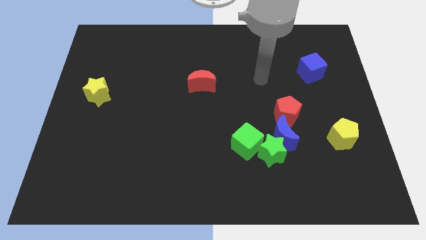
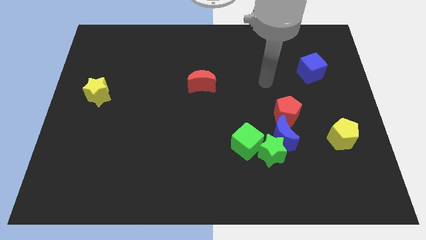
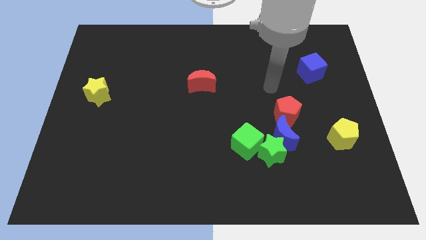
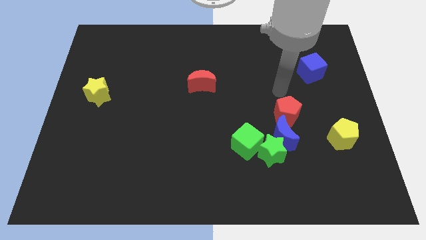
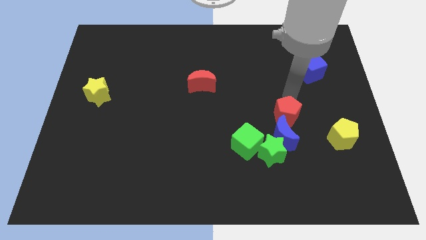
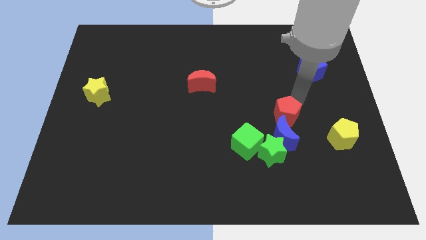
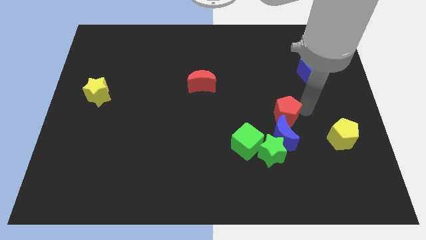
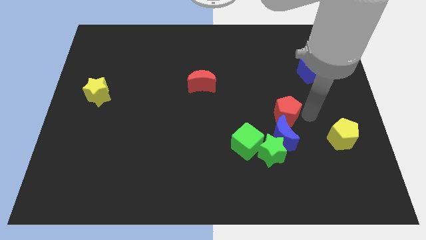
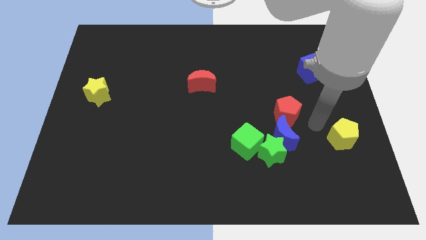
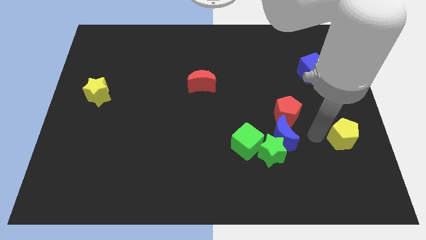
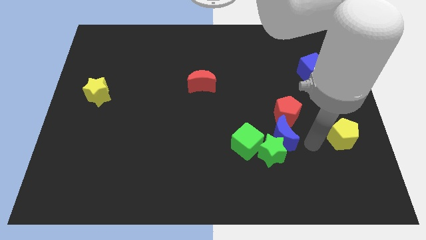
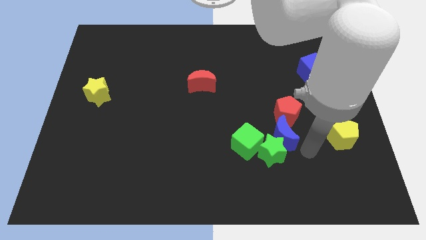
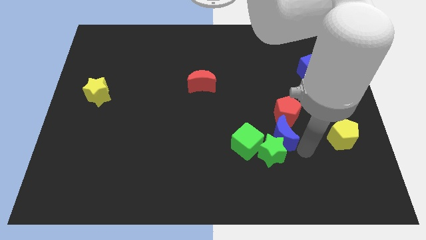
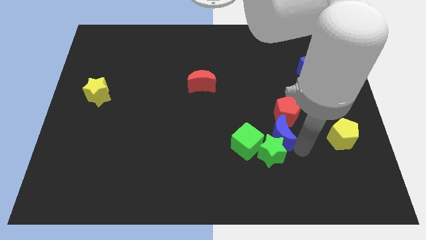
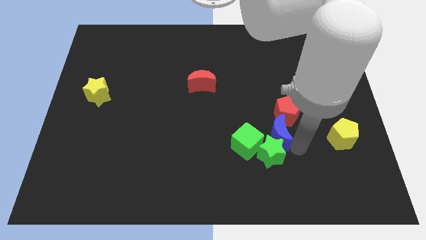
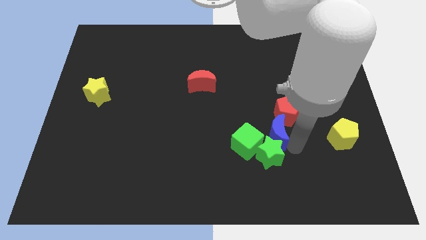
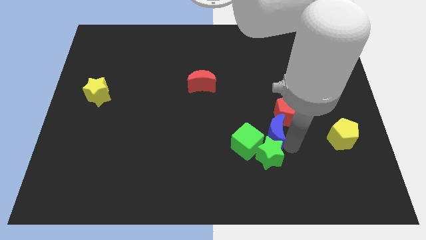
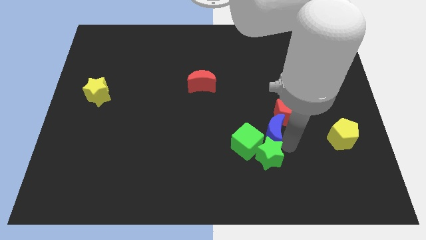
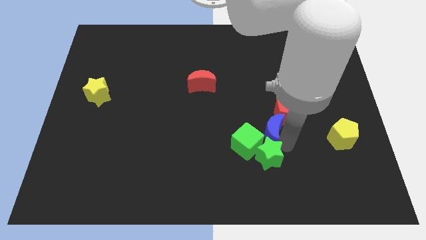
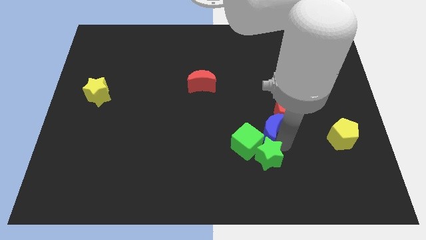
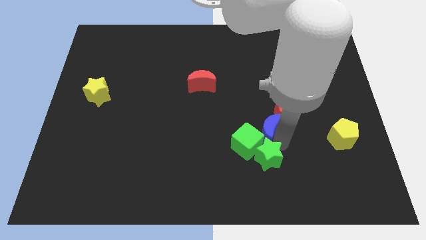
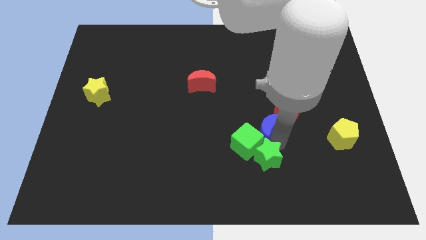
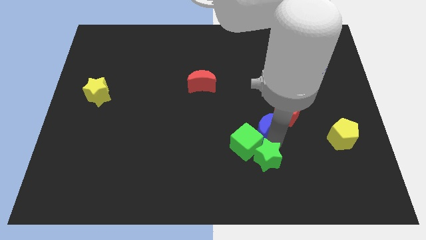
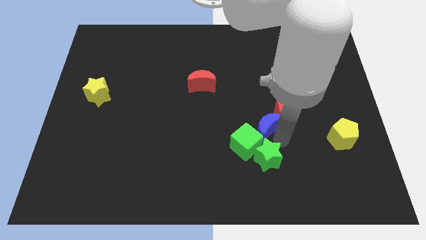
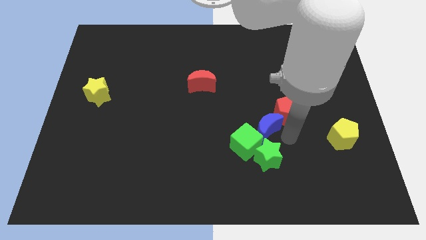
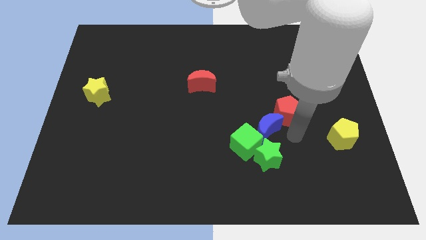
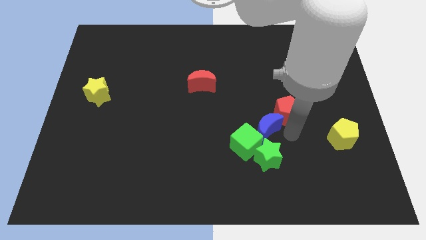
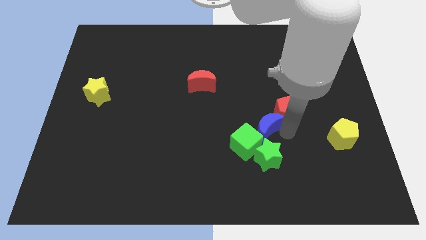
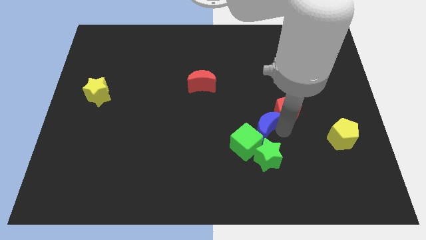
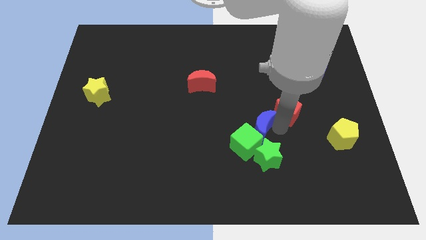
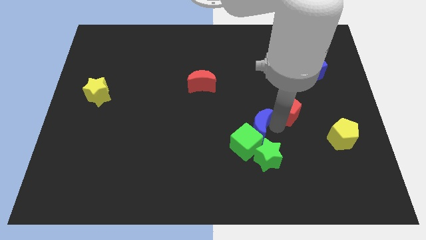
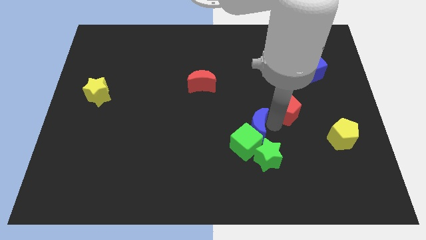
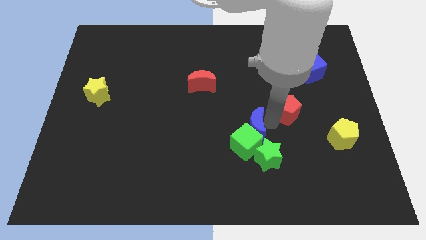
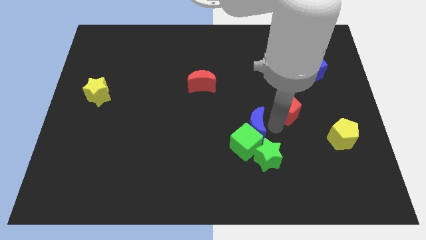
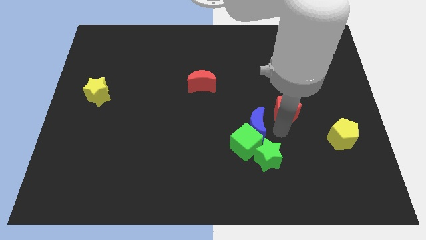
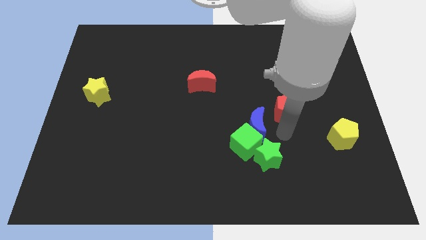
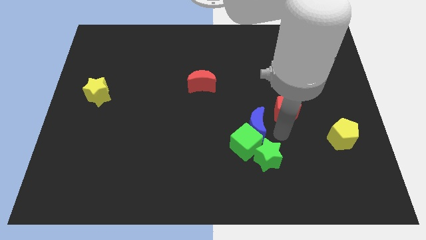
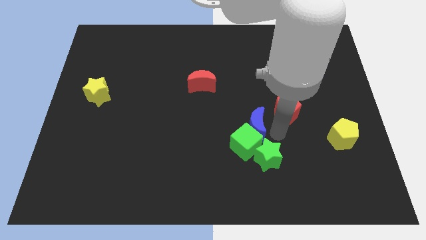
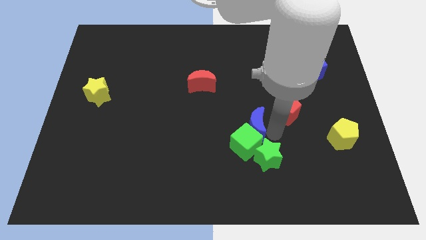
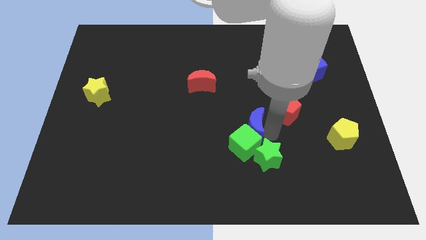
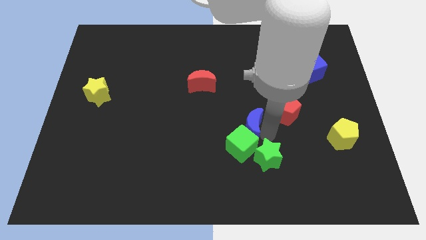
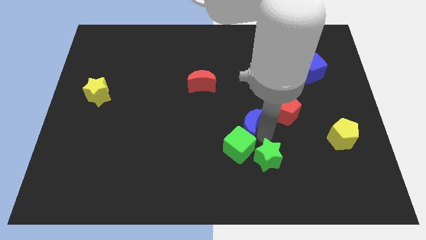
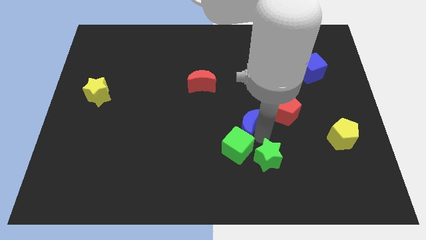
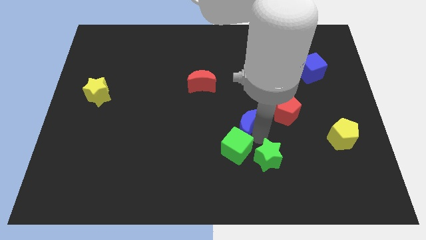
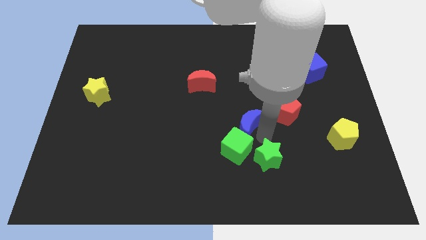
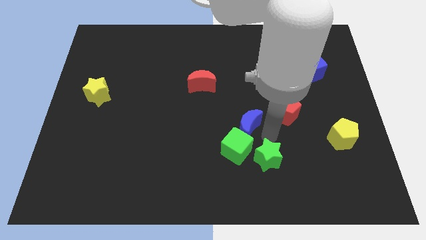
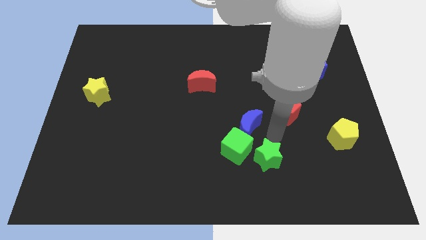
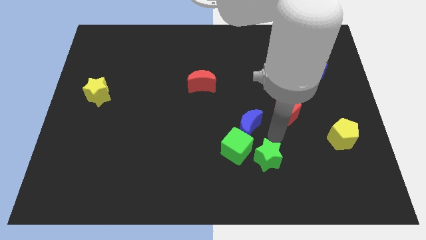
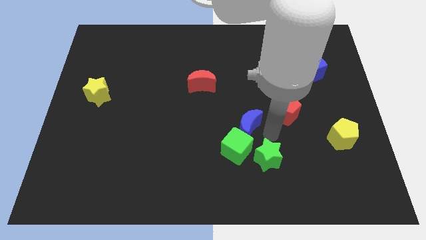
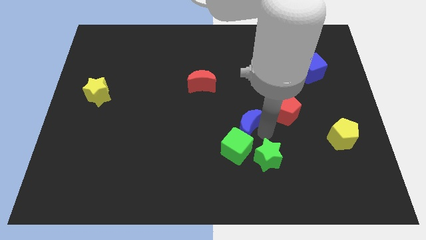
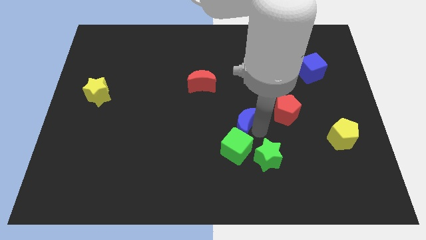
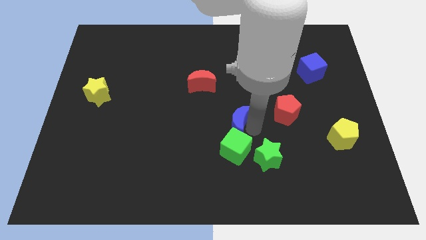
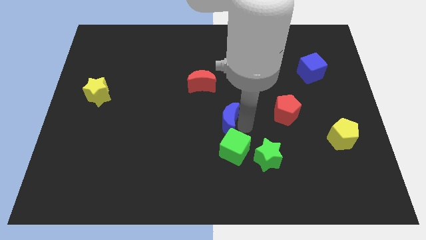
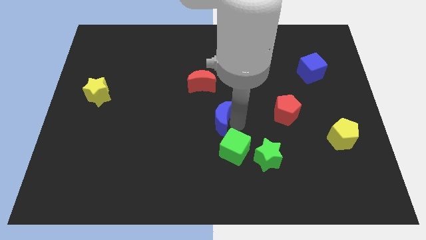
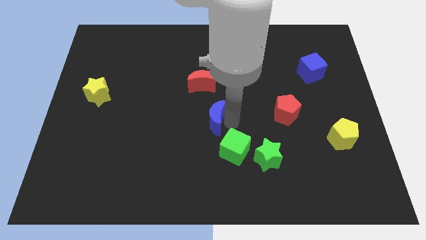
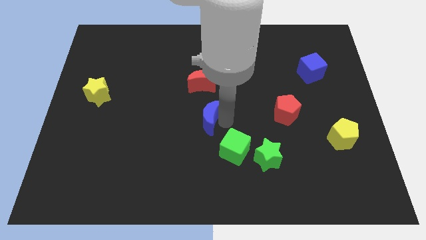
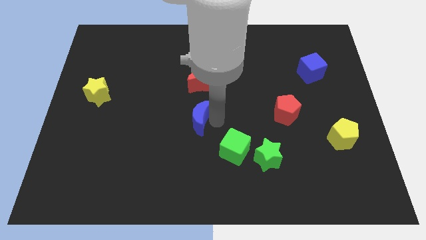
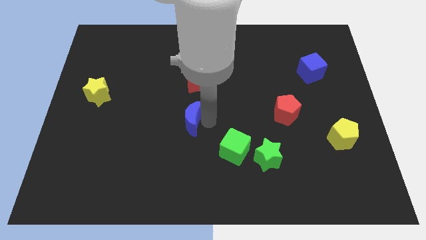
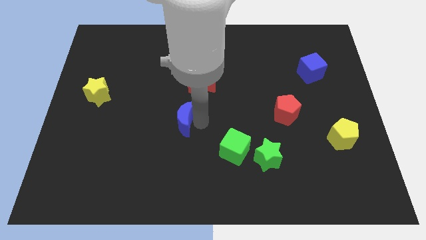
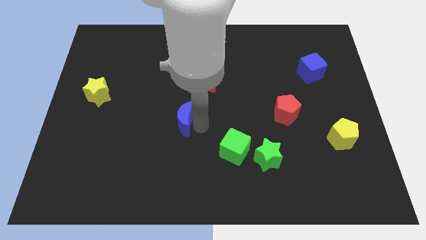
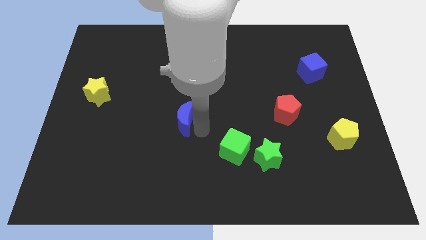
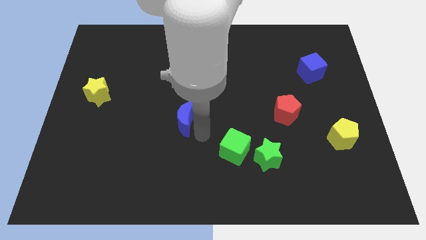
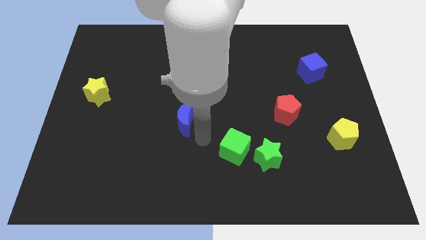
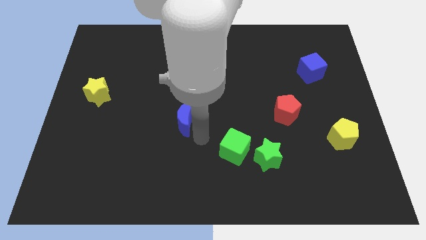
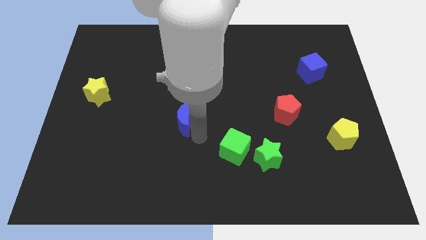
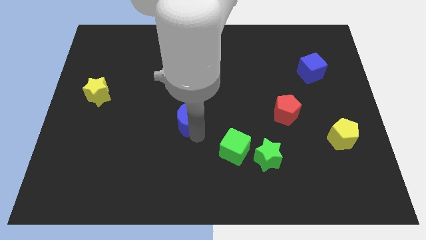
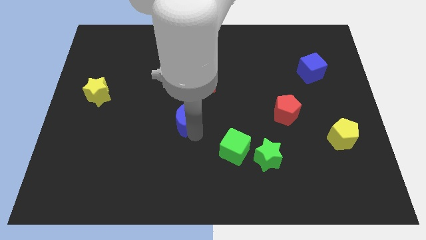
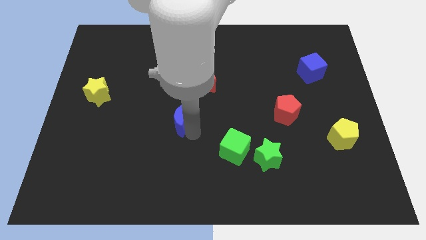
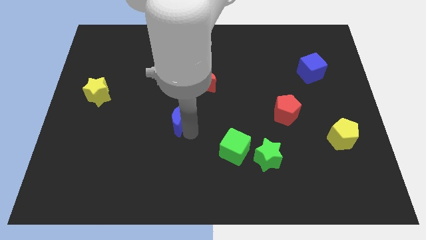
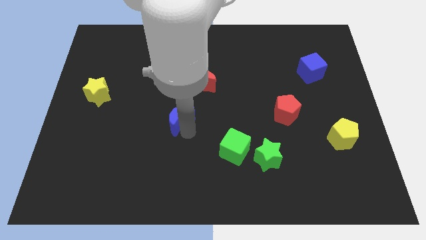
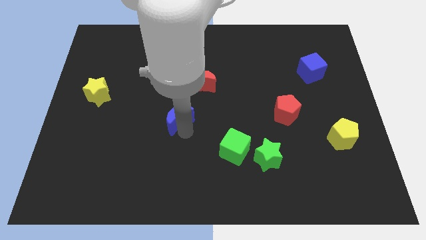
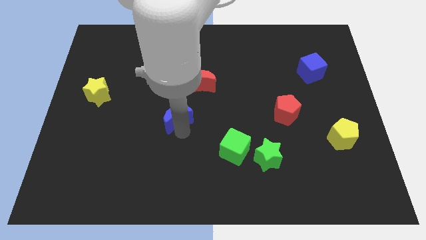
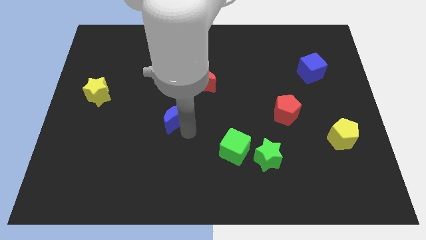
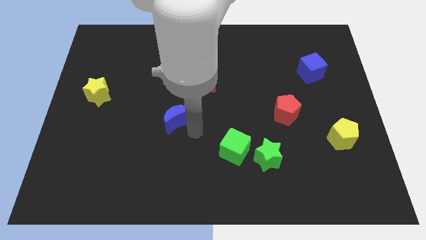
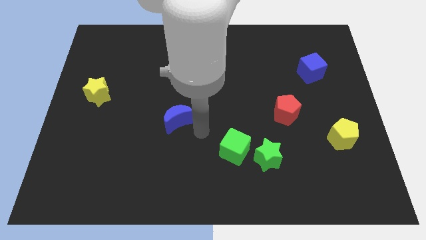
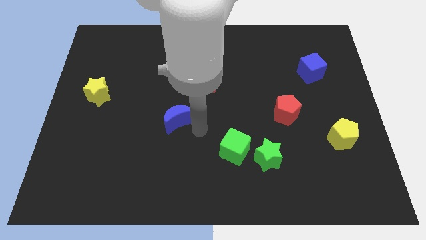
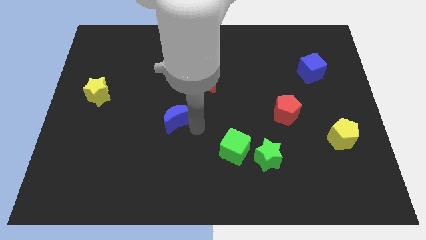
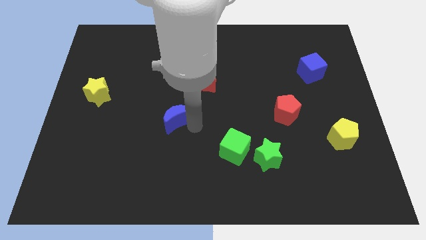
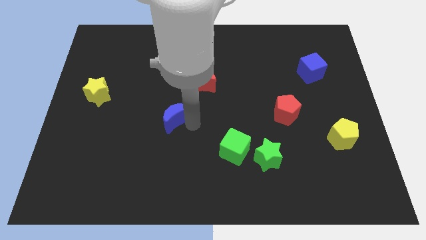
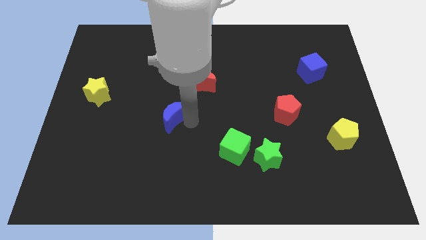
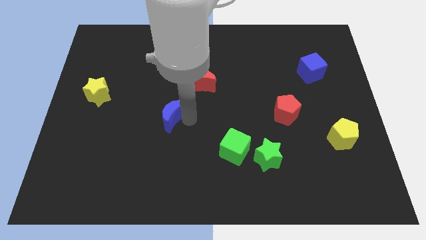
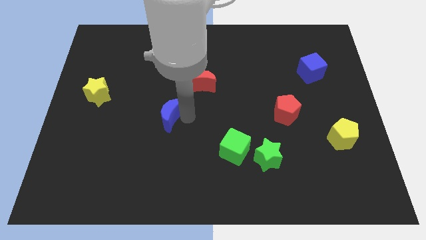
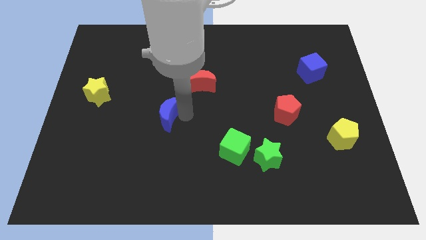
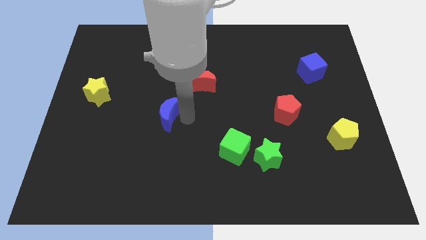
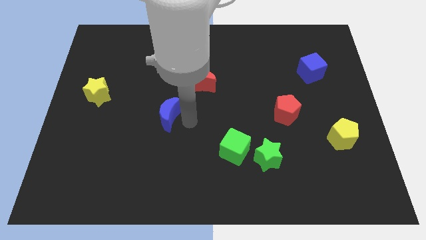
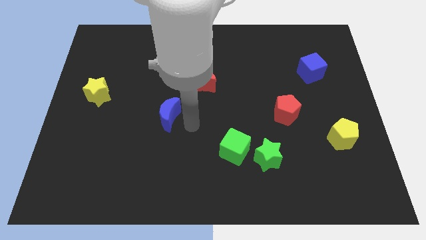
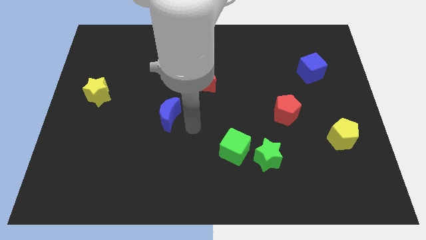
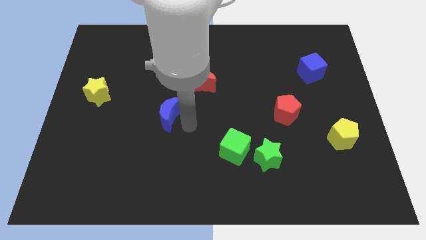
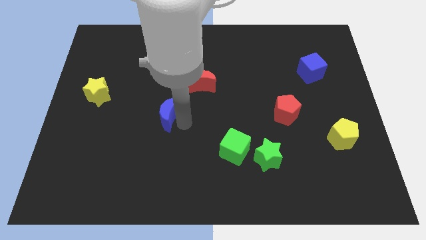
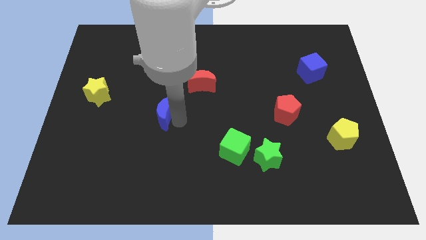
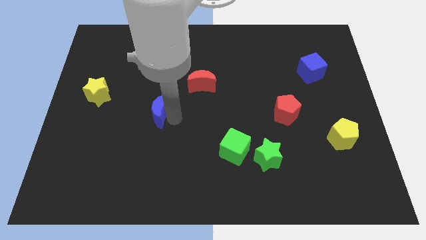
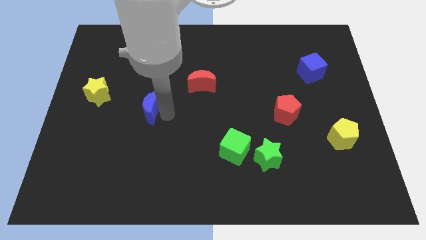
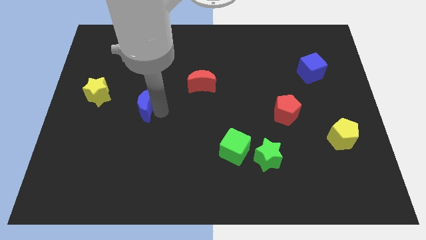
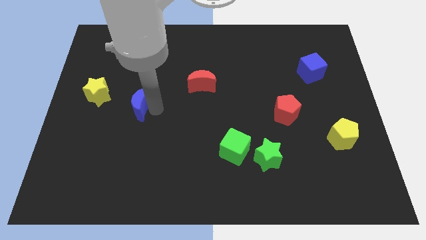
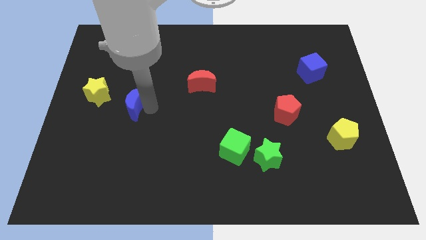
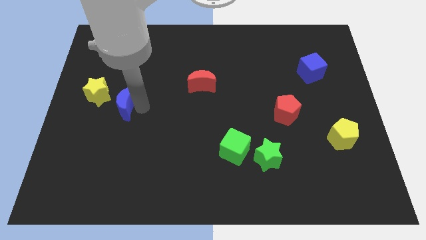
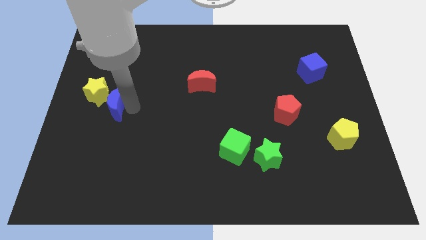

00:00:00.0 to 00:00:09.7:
slide the blue moon towards the yellow star
